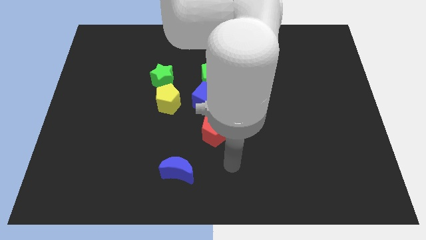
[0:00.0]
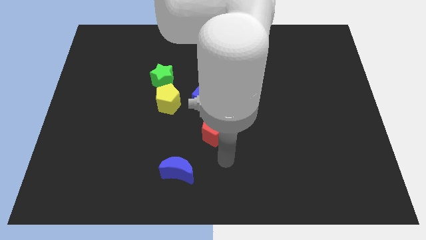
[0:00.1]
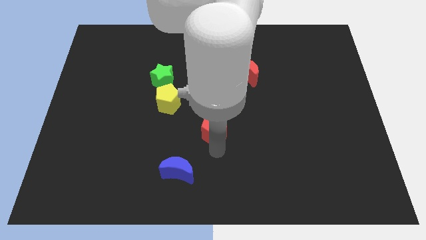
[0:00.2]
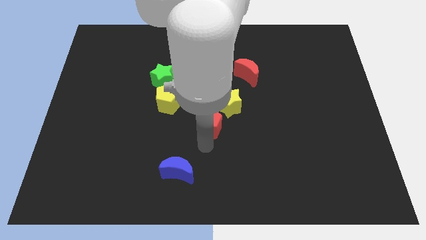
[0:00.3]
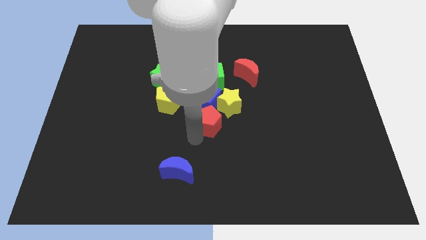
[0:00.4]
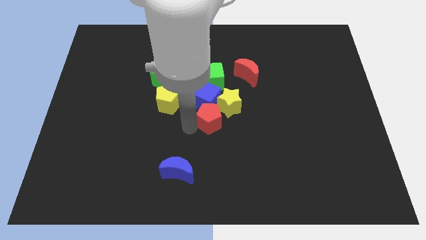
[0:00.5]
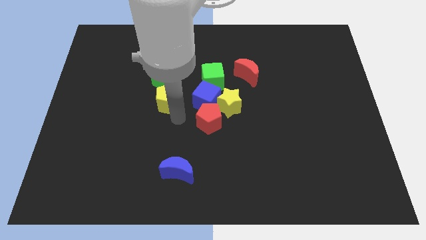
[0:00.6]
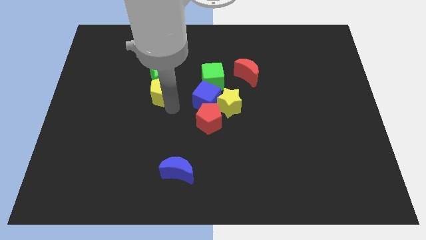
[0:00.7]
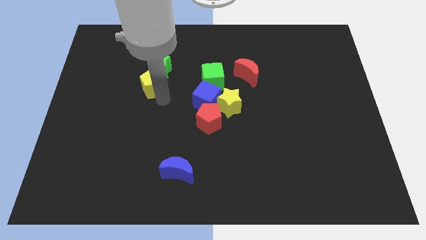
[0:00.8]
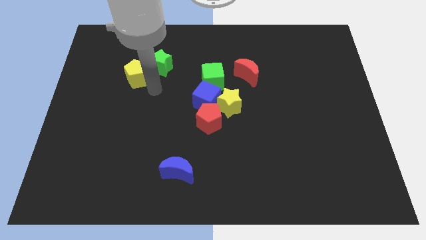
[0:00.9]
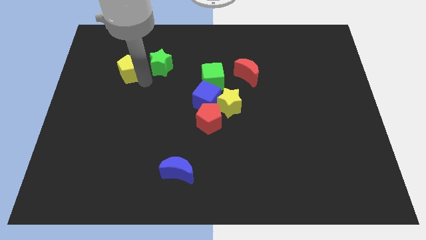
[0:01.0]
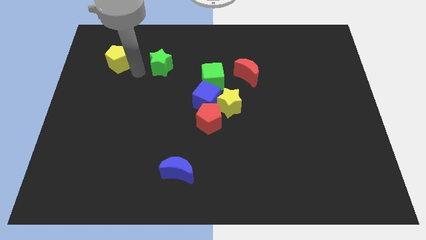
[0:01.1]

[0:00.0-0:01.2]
move the green star away from the yellow pentagon

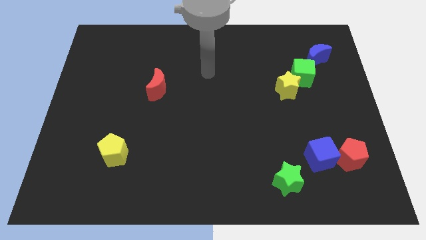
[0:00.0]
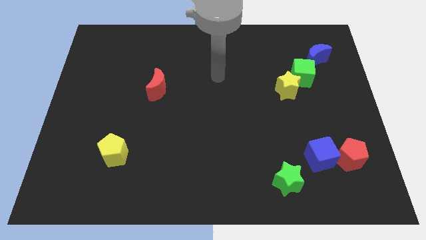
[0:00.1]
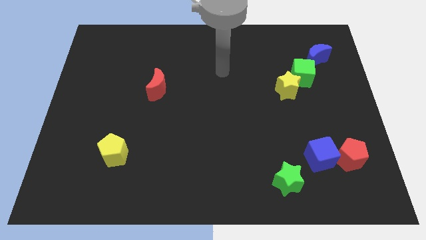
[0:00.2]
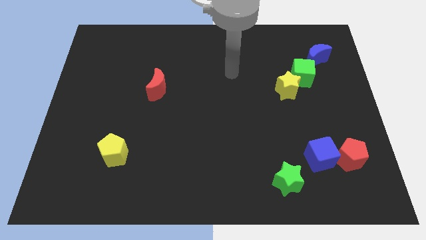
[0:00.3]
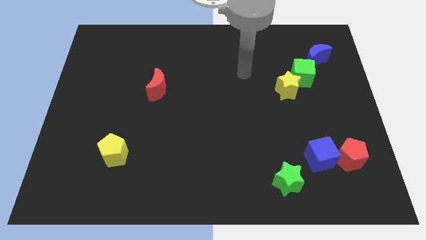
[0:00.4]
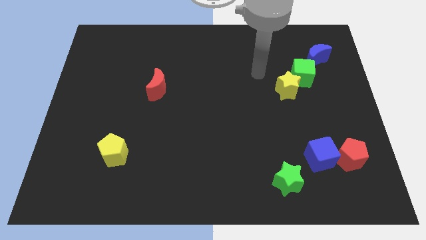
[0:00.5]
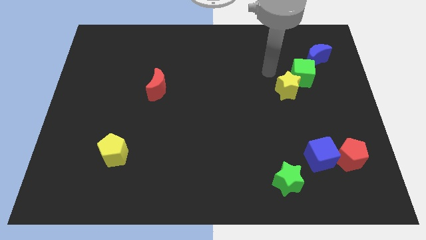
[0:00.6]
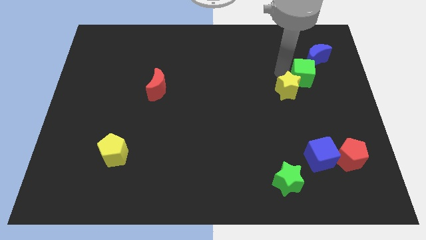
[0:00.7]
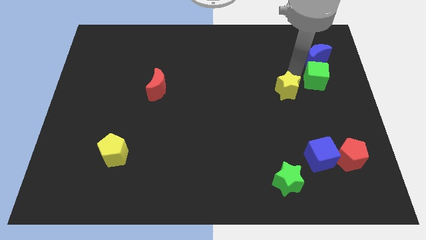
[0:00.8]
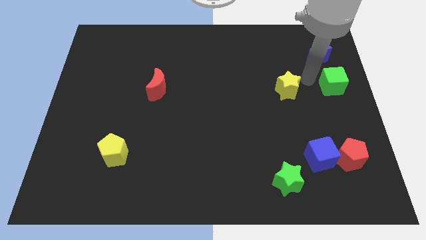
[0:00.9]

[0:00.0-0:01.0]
move the yellow star away from the green cube

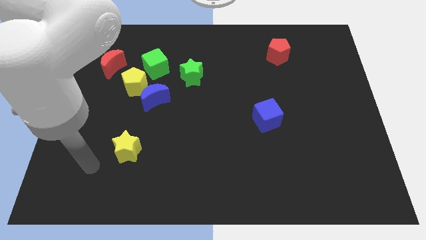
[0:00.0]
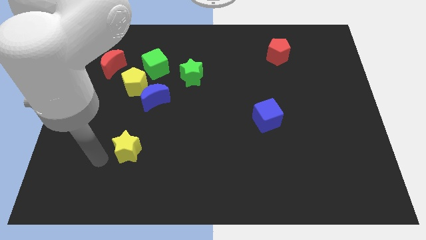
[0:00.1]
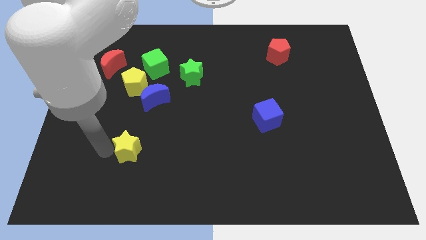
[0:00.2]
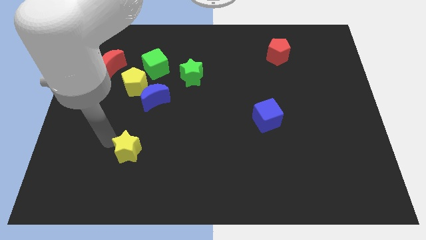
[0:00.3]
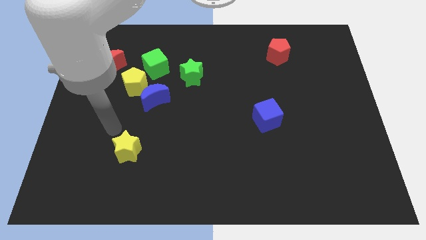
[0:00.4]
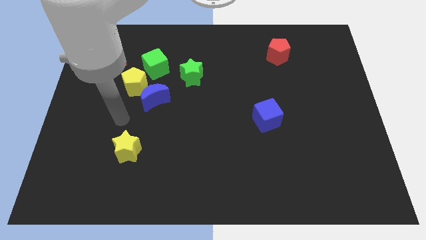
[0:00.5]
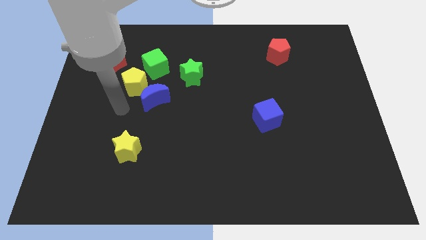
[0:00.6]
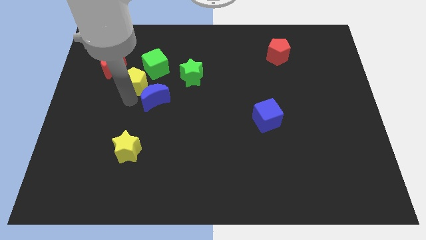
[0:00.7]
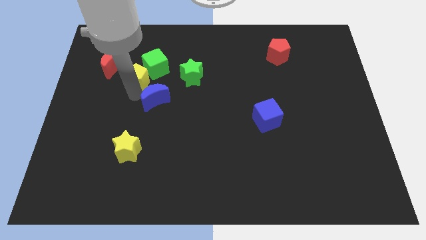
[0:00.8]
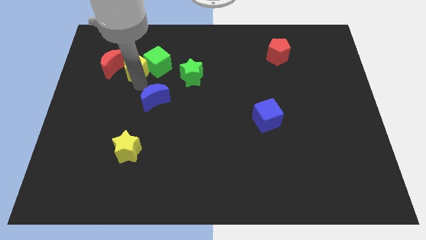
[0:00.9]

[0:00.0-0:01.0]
pull the blue moon apart from the yellow pentagon

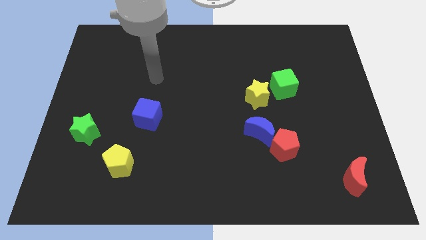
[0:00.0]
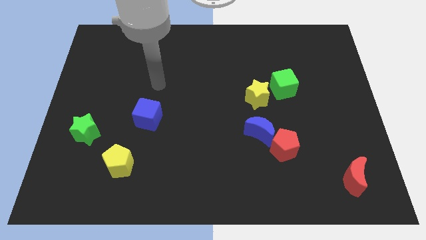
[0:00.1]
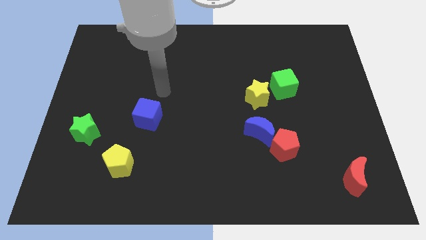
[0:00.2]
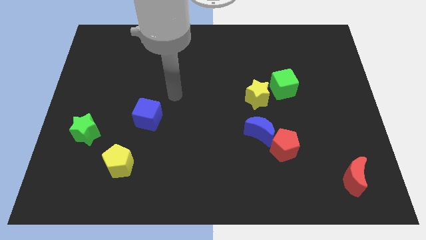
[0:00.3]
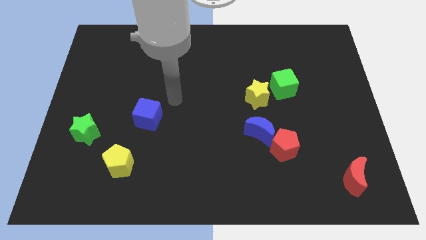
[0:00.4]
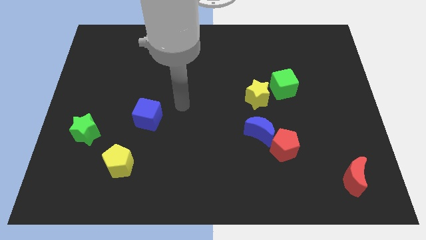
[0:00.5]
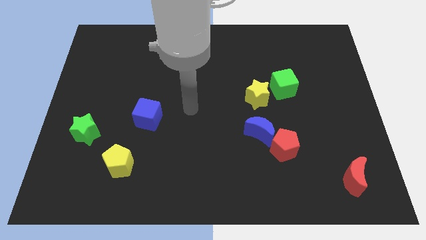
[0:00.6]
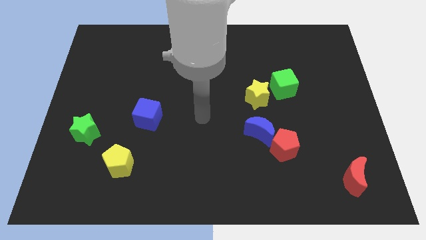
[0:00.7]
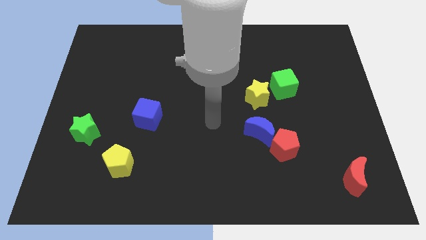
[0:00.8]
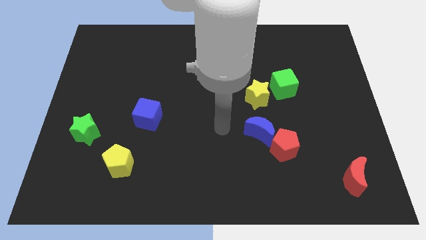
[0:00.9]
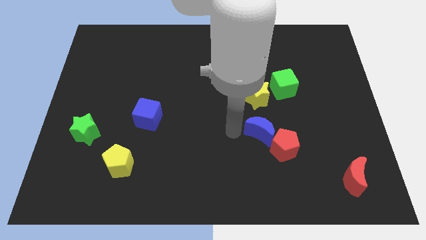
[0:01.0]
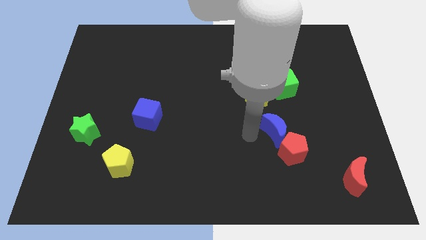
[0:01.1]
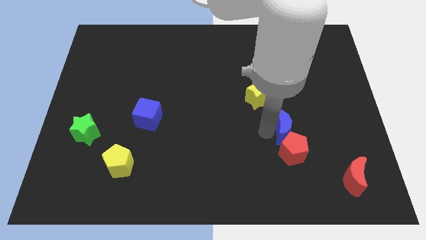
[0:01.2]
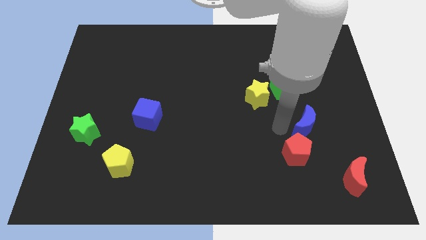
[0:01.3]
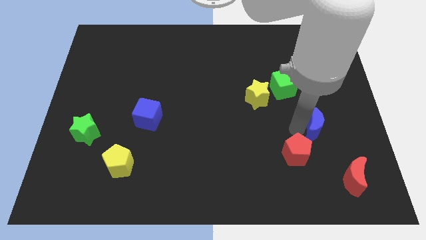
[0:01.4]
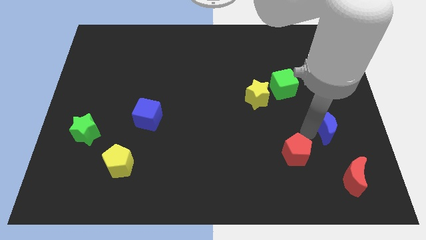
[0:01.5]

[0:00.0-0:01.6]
separate the red pentagon from the blue moon

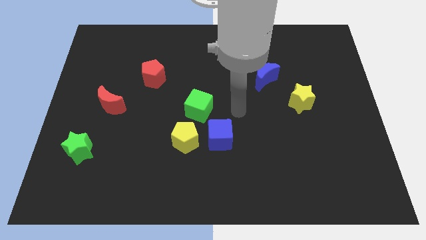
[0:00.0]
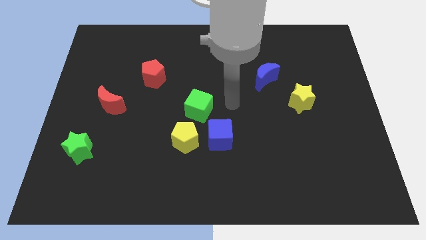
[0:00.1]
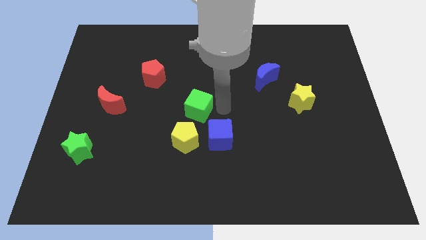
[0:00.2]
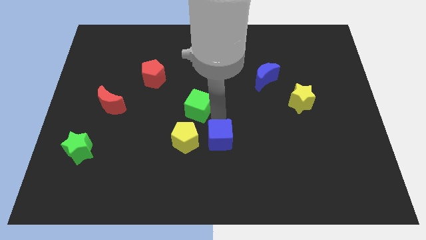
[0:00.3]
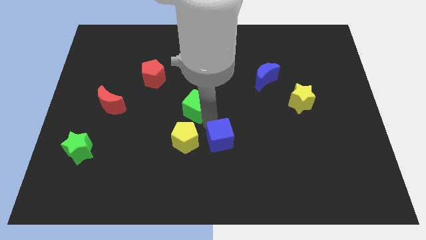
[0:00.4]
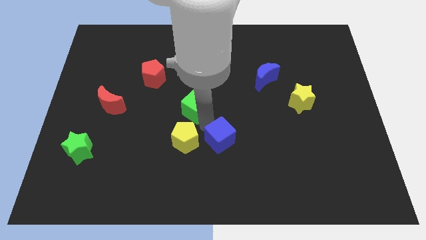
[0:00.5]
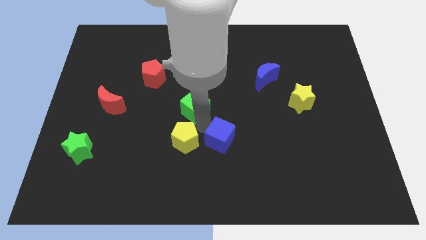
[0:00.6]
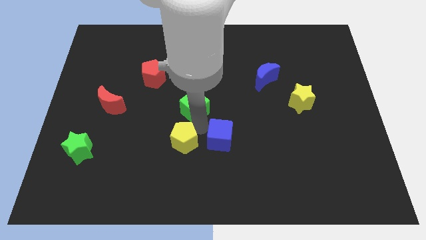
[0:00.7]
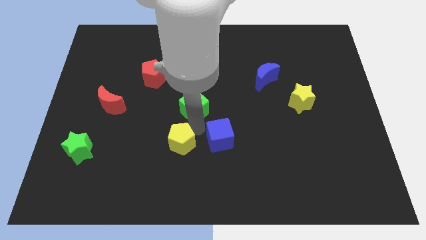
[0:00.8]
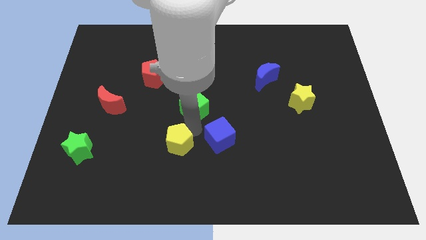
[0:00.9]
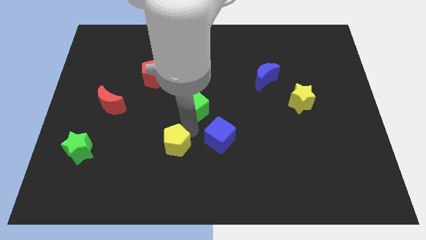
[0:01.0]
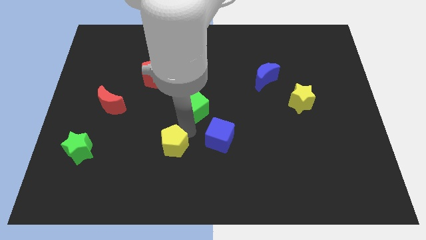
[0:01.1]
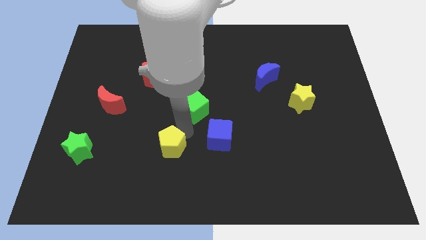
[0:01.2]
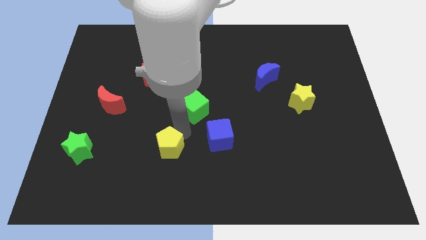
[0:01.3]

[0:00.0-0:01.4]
pull the yellow pentagon apart from the blue cube and green cube

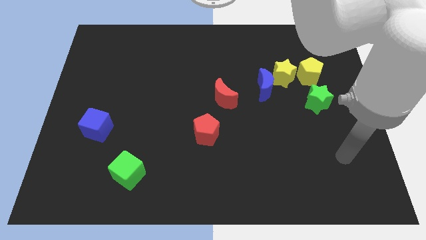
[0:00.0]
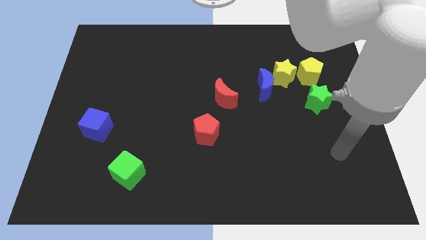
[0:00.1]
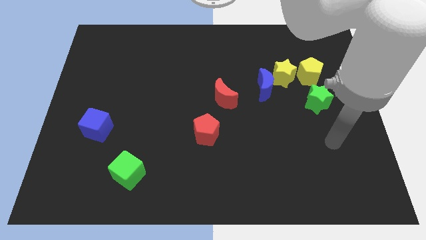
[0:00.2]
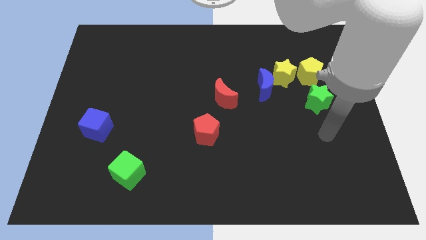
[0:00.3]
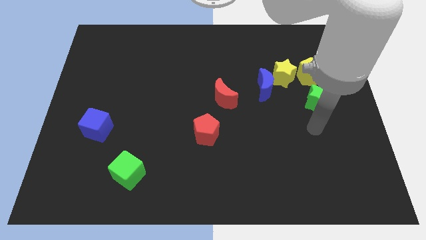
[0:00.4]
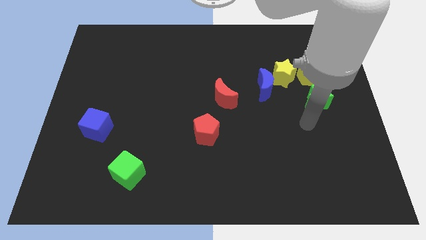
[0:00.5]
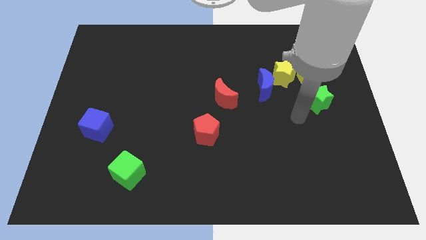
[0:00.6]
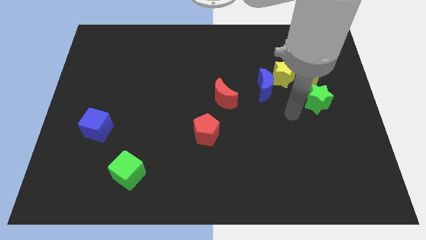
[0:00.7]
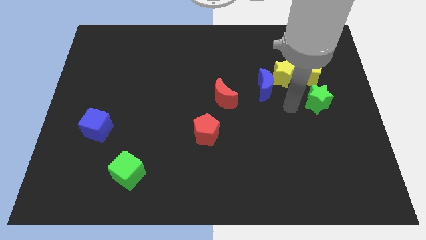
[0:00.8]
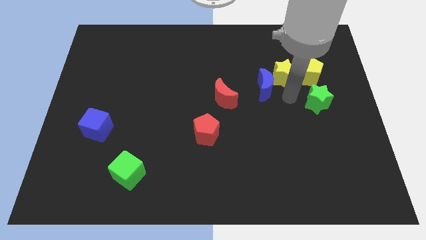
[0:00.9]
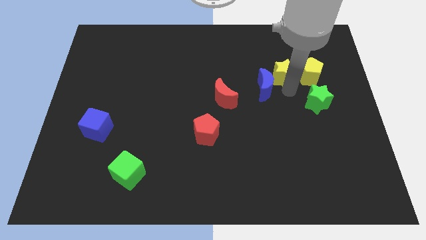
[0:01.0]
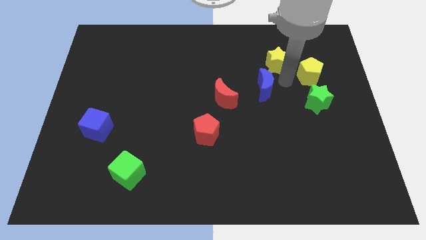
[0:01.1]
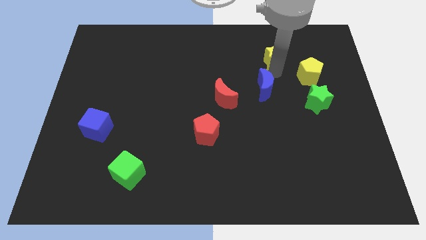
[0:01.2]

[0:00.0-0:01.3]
pull the blue moon apart from the yellow star

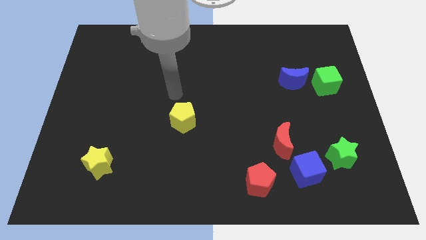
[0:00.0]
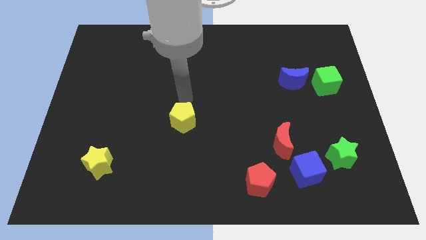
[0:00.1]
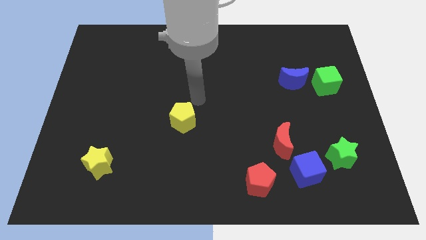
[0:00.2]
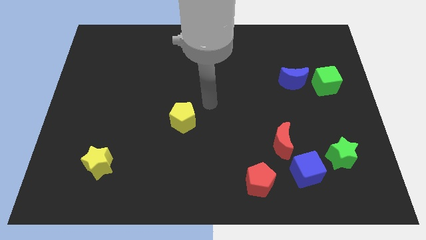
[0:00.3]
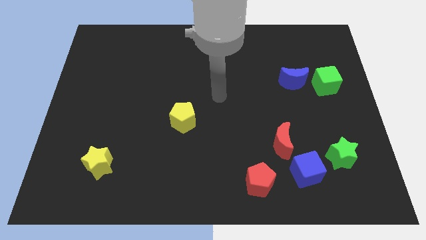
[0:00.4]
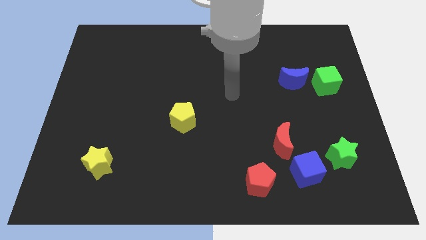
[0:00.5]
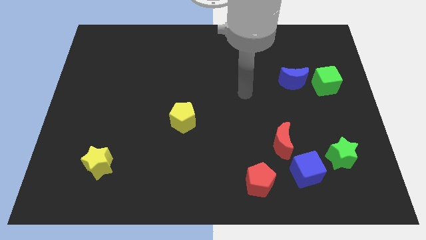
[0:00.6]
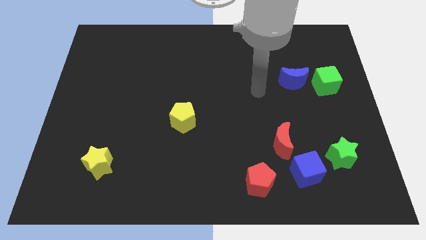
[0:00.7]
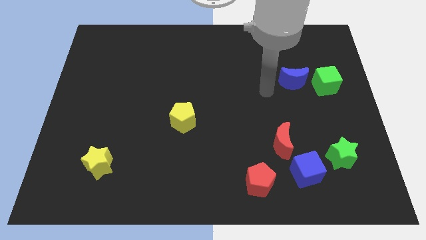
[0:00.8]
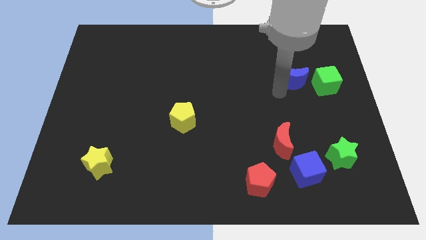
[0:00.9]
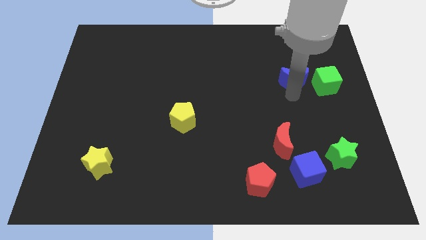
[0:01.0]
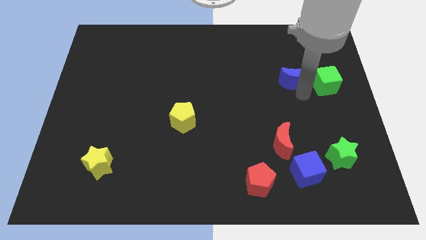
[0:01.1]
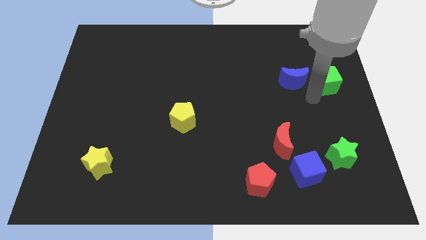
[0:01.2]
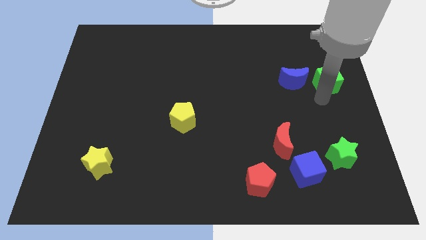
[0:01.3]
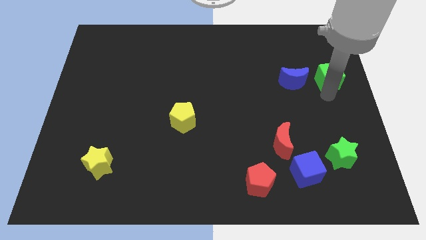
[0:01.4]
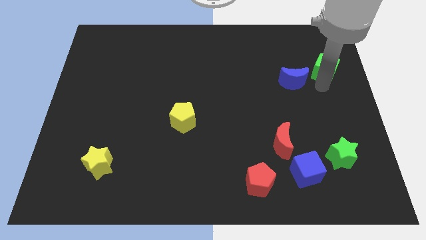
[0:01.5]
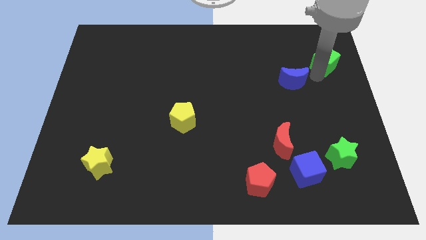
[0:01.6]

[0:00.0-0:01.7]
separate the blue moon from the green cube

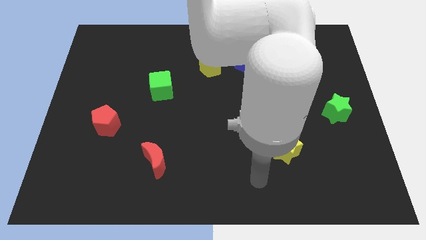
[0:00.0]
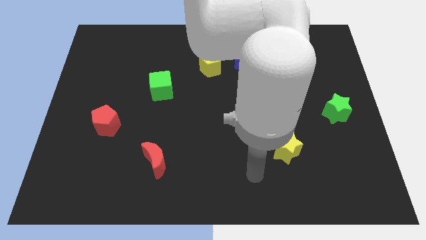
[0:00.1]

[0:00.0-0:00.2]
pull the blue cube apart from the yellow pentagon
